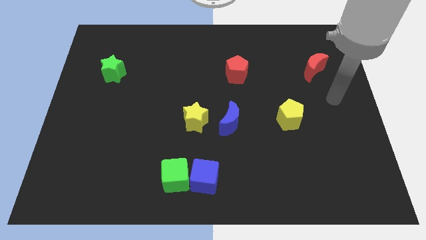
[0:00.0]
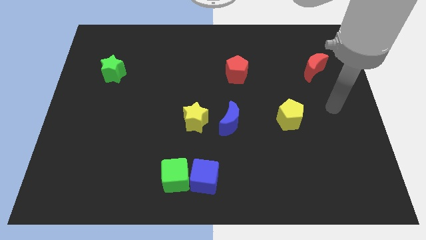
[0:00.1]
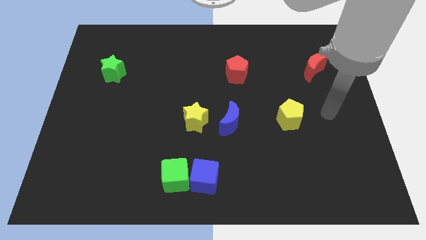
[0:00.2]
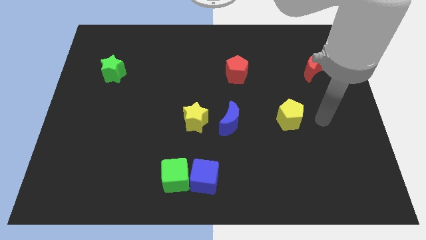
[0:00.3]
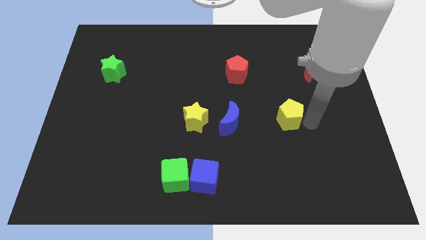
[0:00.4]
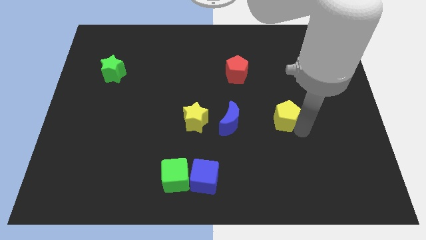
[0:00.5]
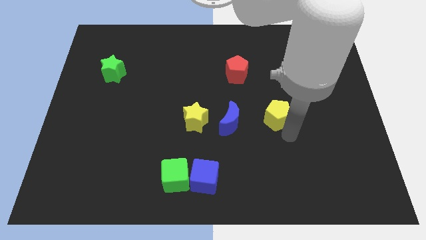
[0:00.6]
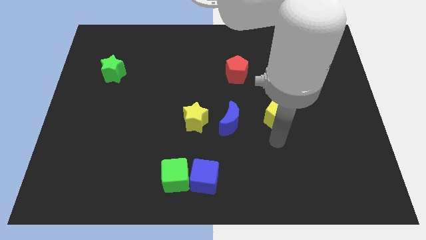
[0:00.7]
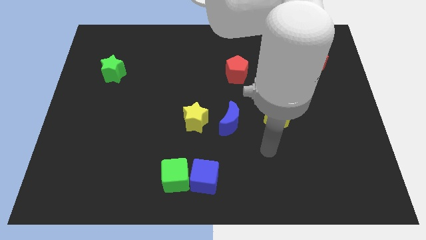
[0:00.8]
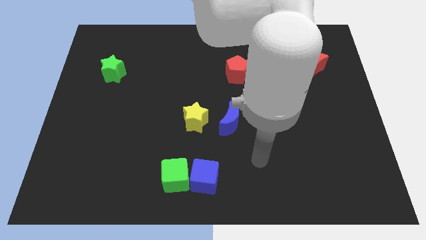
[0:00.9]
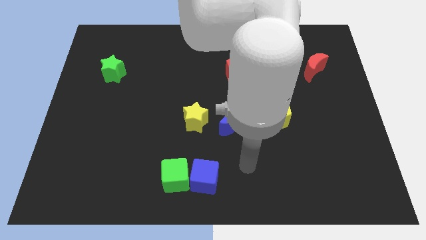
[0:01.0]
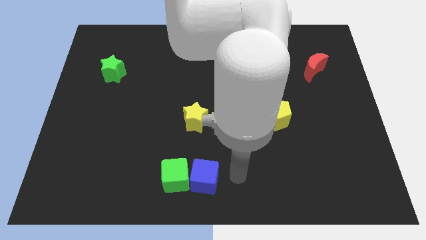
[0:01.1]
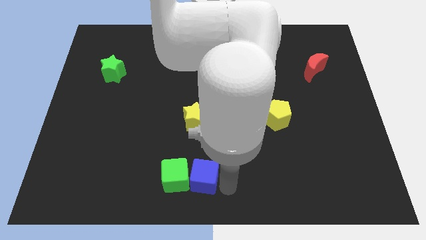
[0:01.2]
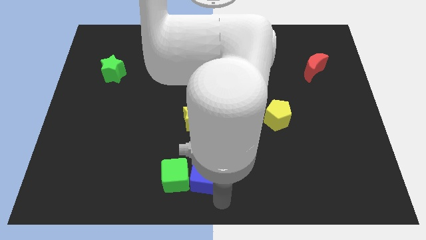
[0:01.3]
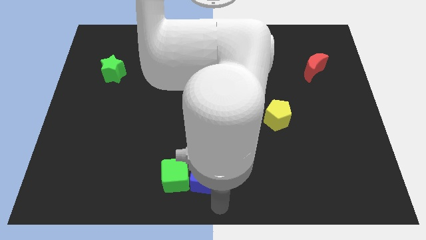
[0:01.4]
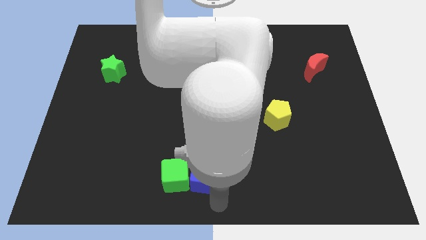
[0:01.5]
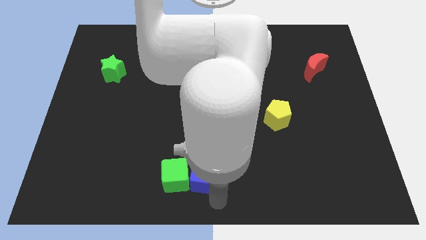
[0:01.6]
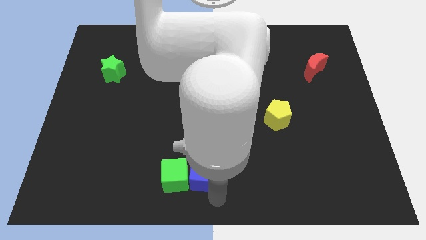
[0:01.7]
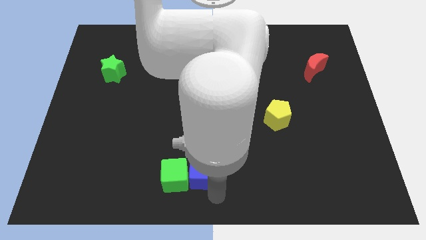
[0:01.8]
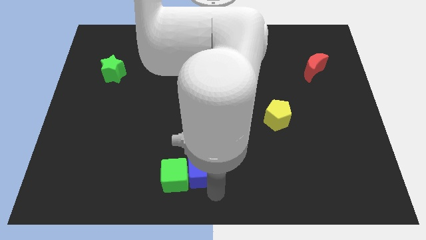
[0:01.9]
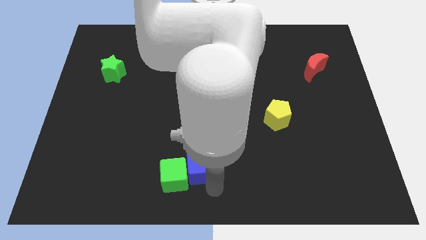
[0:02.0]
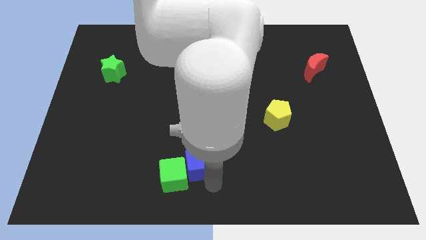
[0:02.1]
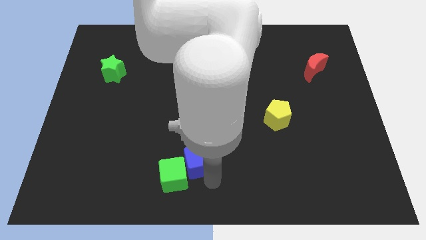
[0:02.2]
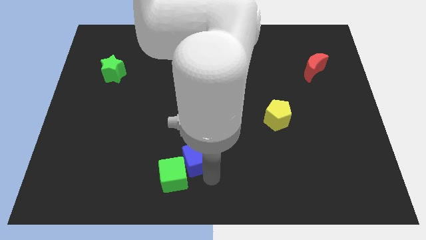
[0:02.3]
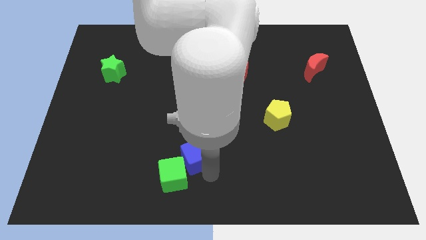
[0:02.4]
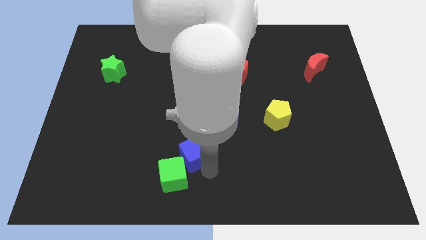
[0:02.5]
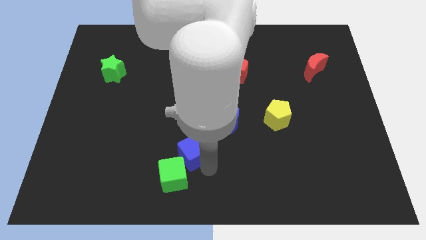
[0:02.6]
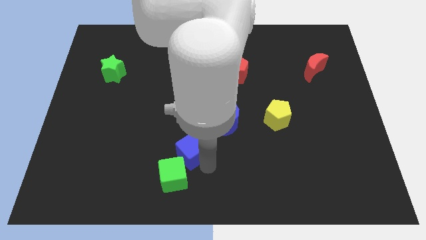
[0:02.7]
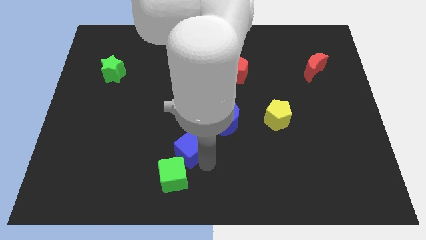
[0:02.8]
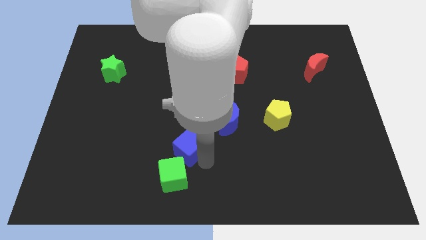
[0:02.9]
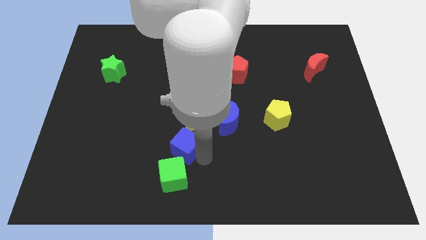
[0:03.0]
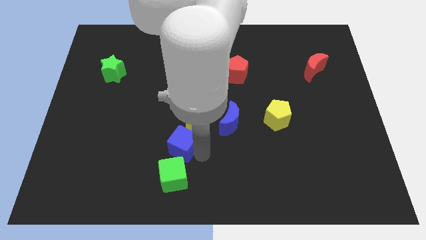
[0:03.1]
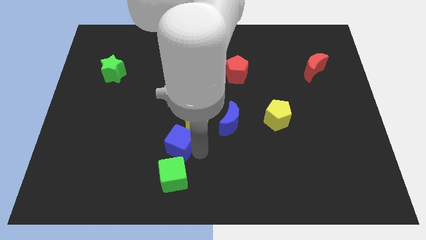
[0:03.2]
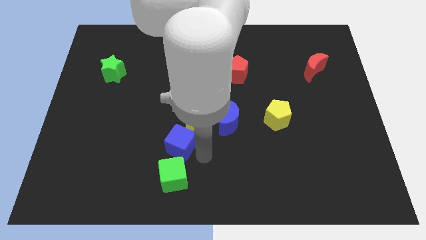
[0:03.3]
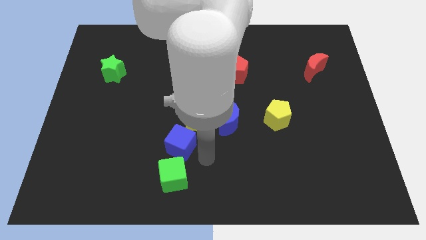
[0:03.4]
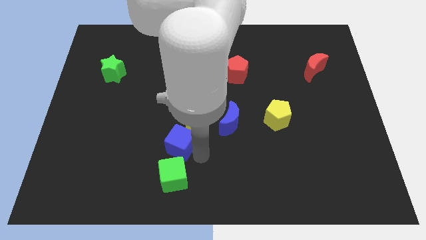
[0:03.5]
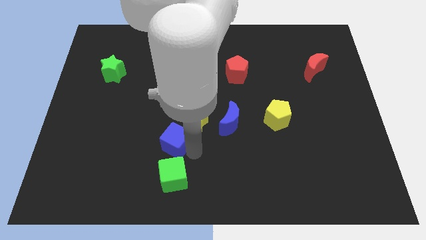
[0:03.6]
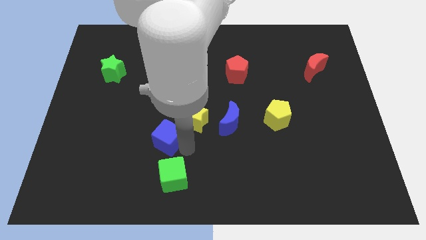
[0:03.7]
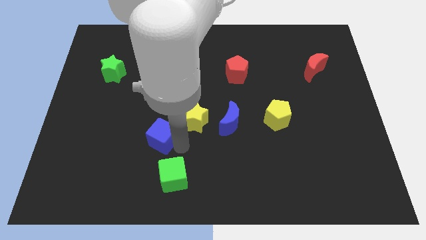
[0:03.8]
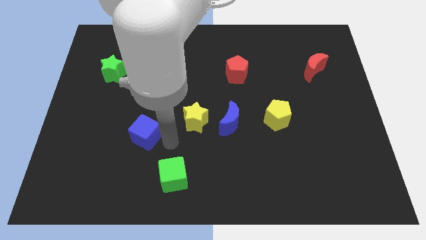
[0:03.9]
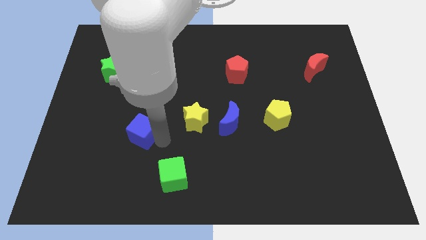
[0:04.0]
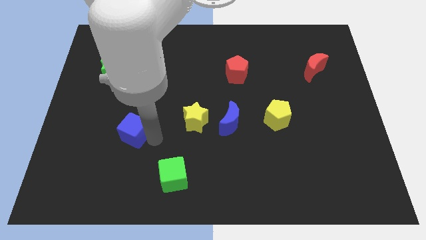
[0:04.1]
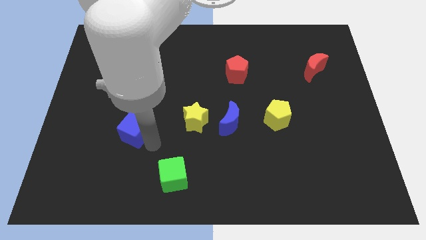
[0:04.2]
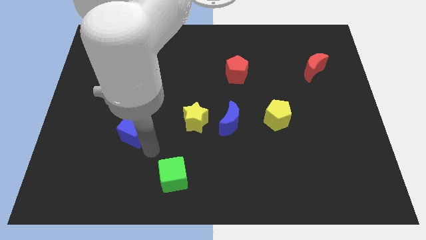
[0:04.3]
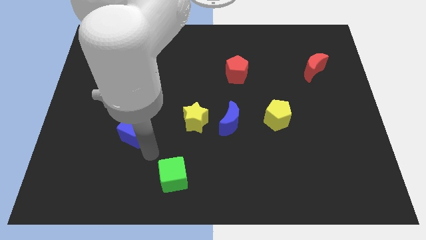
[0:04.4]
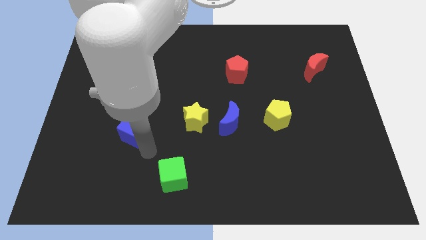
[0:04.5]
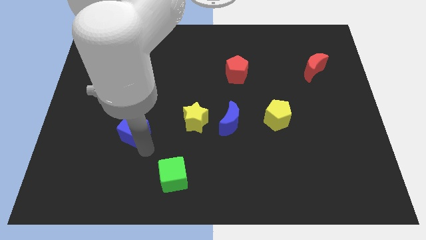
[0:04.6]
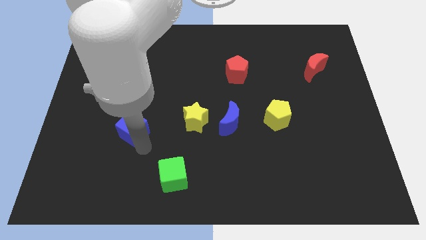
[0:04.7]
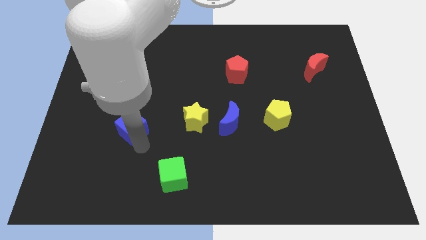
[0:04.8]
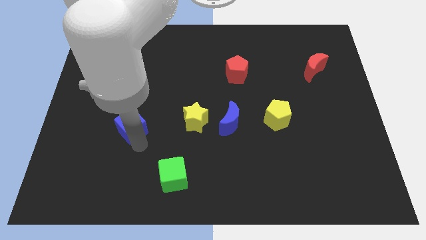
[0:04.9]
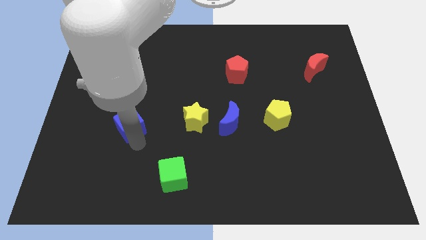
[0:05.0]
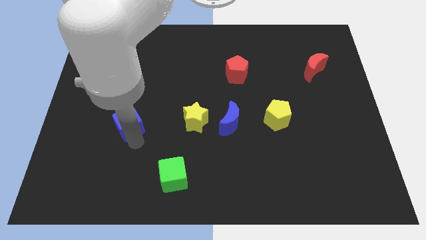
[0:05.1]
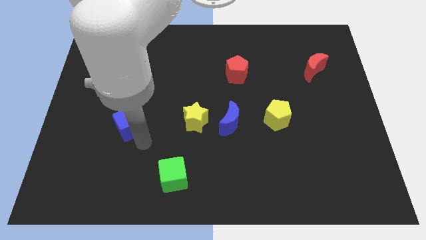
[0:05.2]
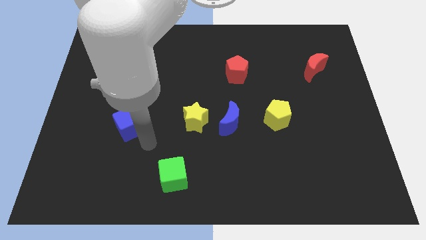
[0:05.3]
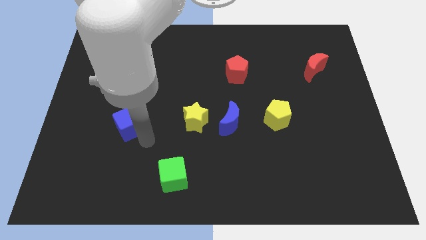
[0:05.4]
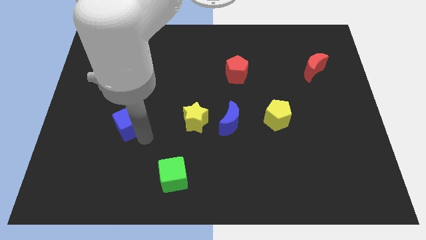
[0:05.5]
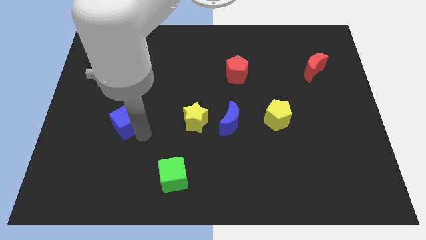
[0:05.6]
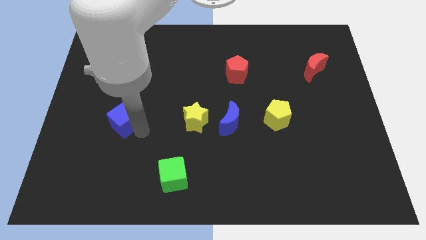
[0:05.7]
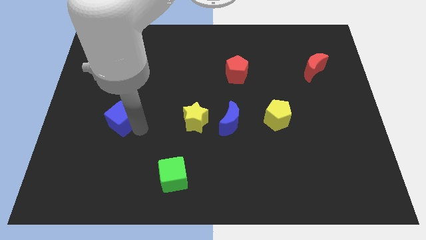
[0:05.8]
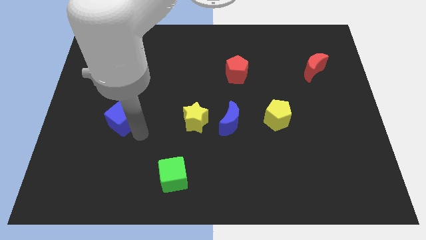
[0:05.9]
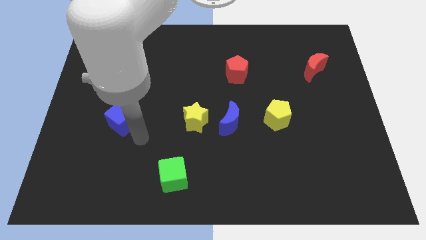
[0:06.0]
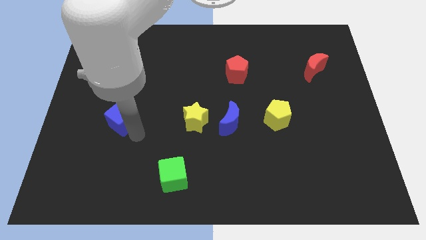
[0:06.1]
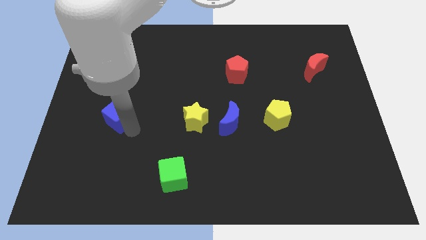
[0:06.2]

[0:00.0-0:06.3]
put the blue cube below the green star

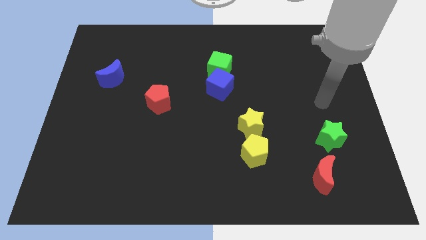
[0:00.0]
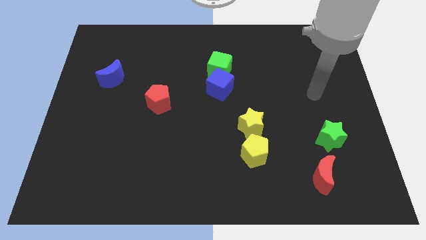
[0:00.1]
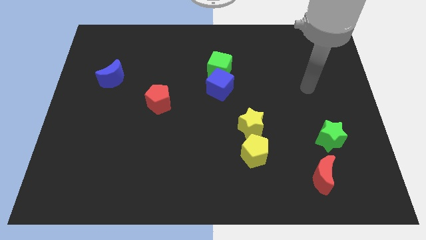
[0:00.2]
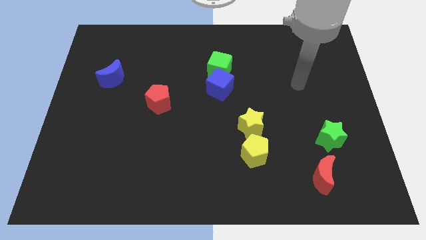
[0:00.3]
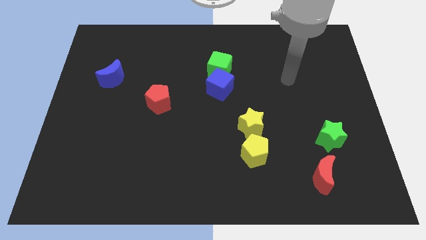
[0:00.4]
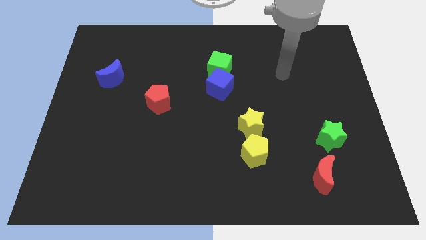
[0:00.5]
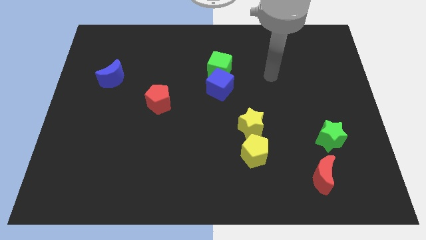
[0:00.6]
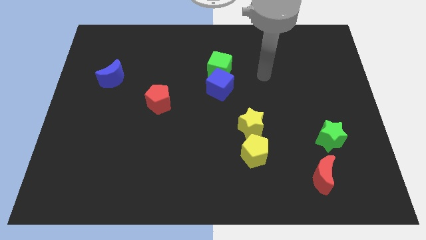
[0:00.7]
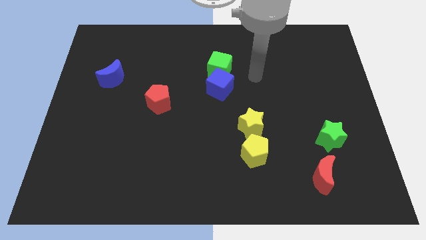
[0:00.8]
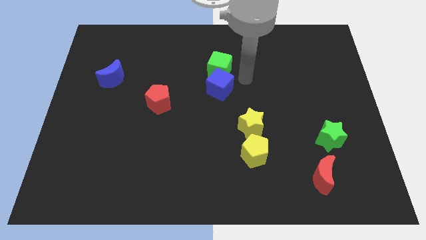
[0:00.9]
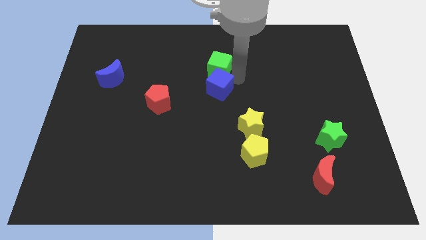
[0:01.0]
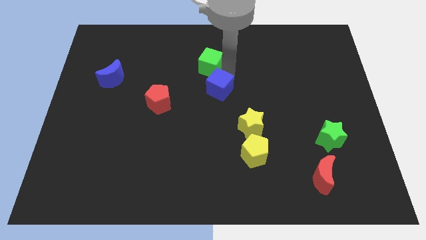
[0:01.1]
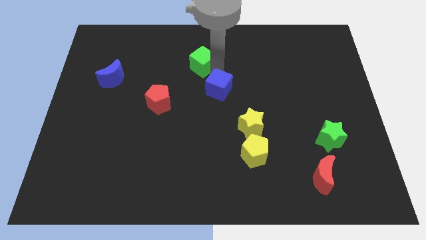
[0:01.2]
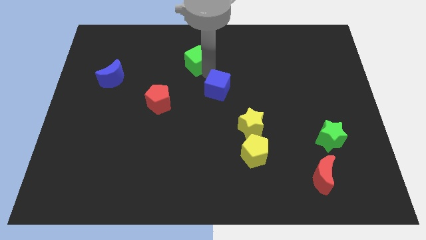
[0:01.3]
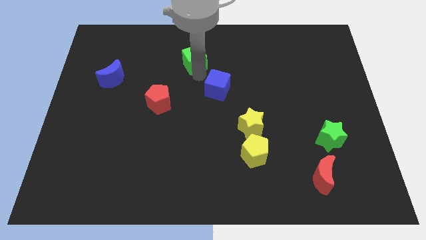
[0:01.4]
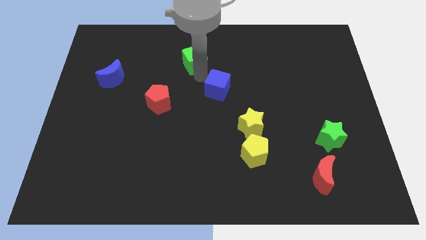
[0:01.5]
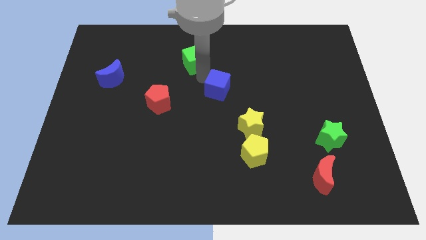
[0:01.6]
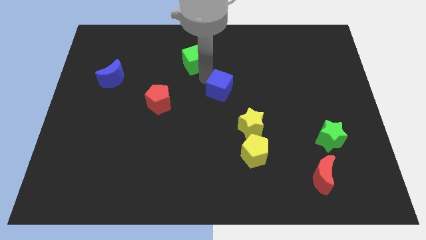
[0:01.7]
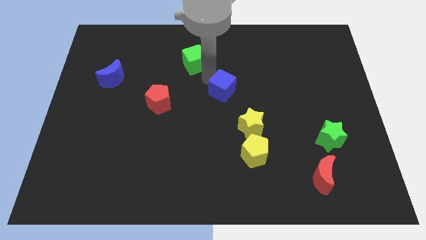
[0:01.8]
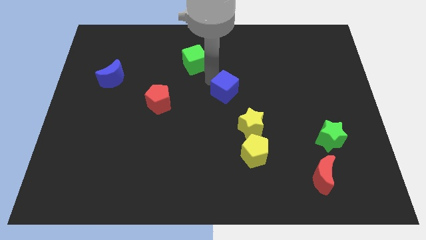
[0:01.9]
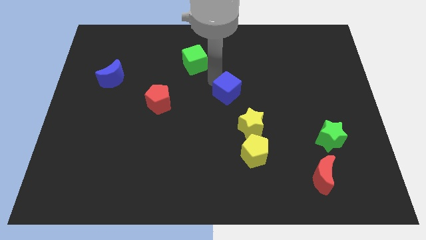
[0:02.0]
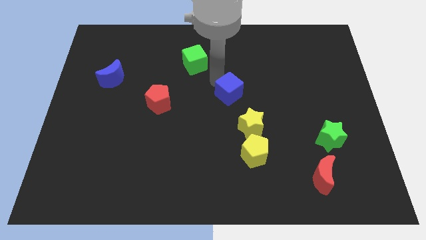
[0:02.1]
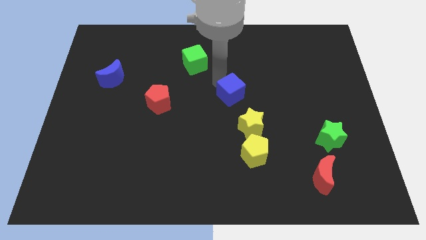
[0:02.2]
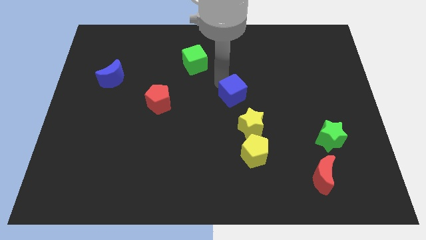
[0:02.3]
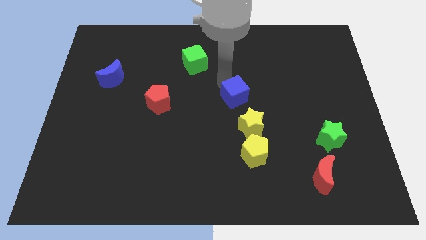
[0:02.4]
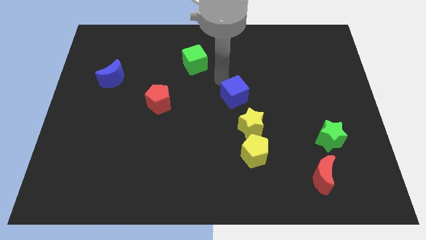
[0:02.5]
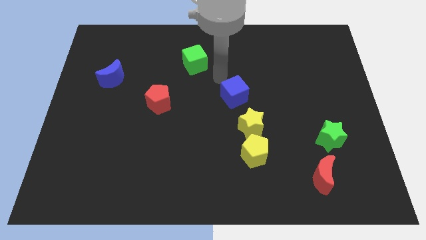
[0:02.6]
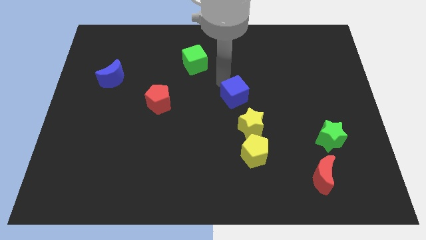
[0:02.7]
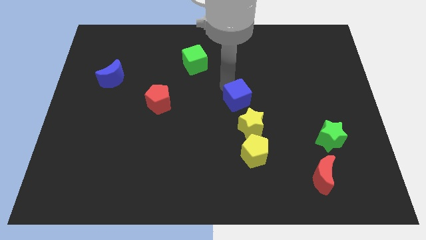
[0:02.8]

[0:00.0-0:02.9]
slide the blue cube above the yellow pentagon
